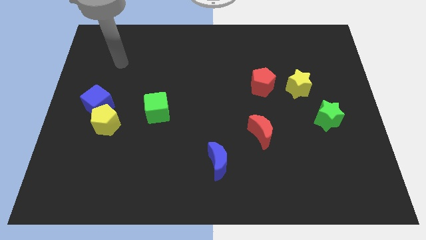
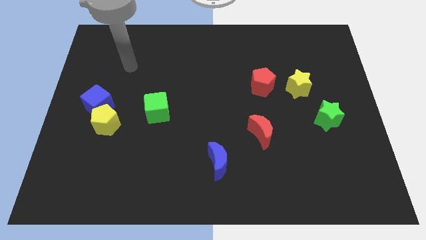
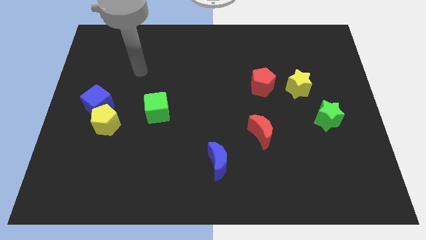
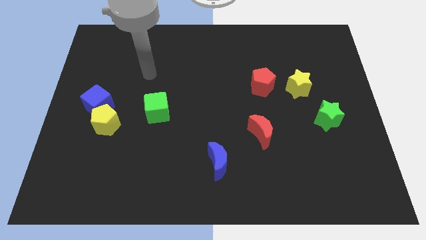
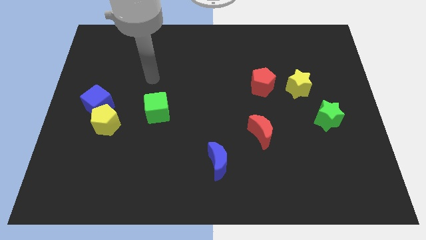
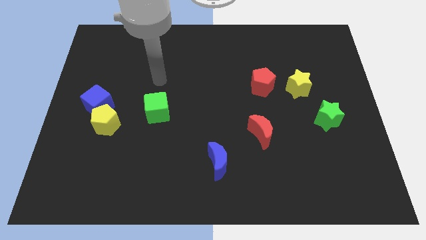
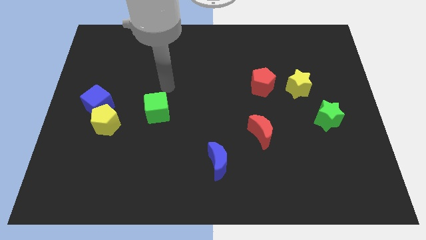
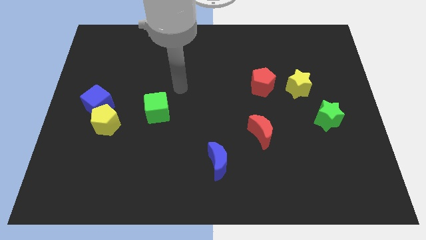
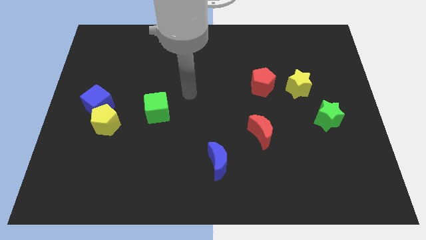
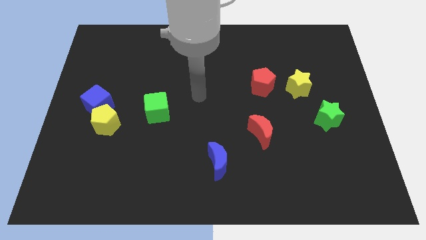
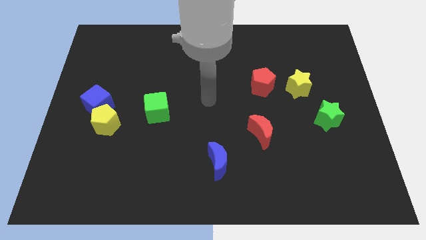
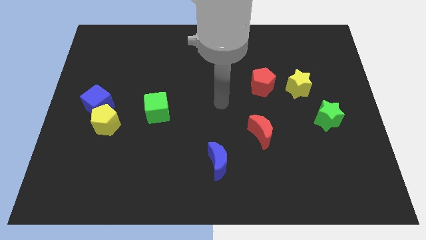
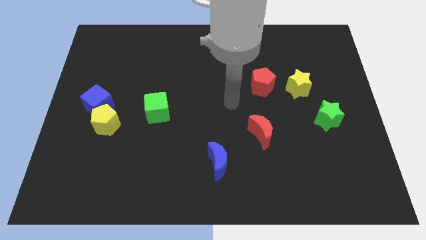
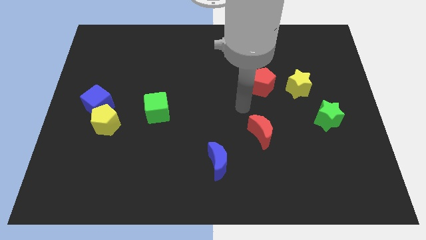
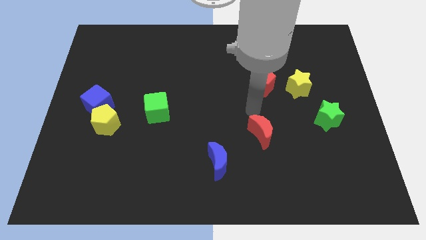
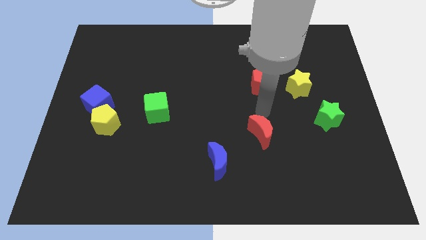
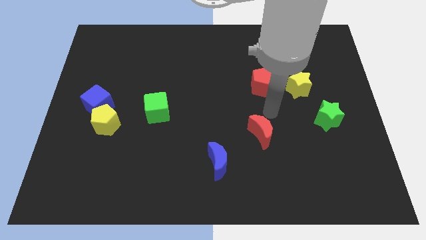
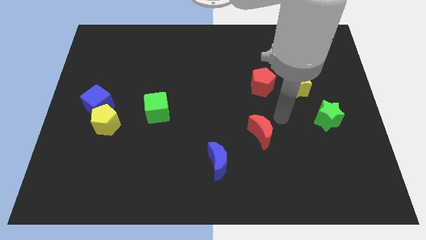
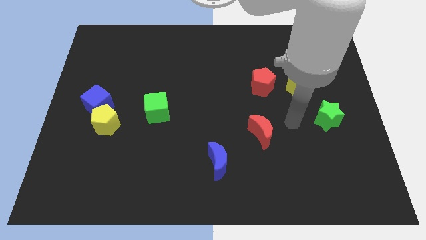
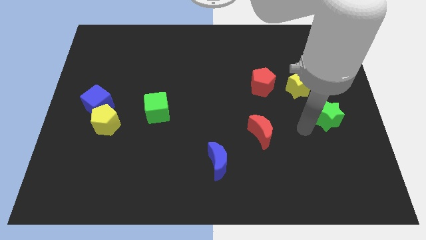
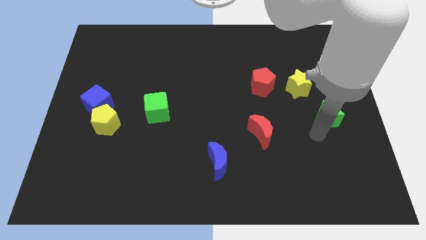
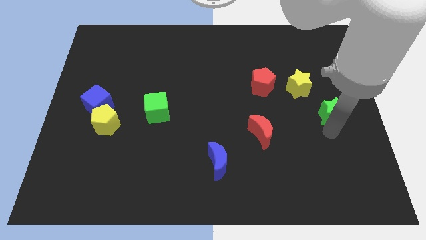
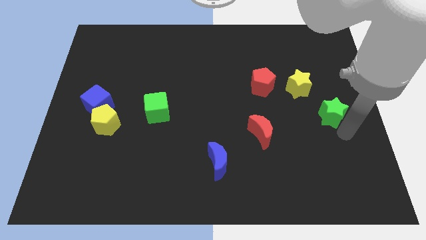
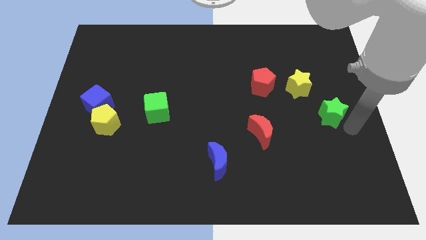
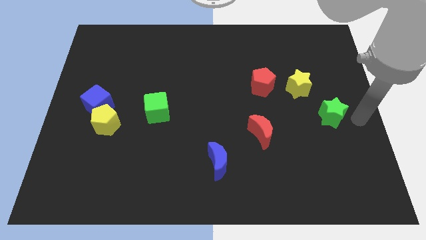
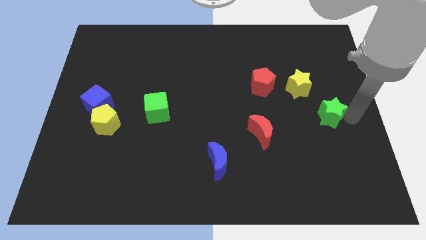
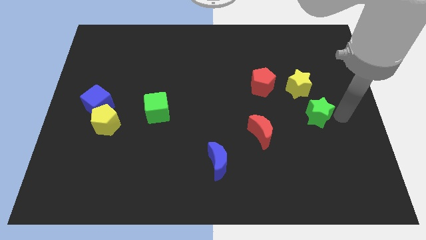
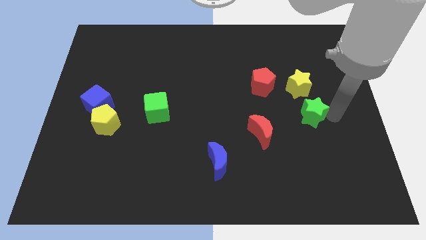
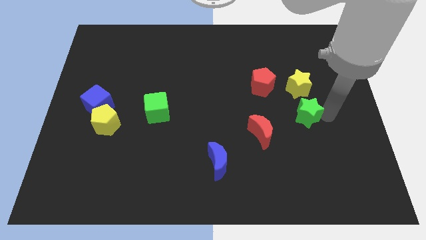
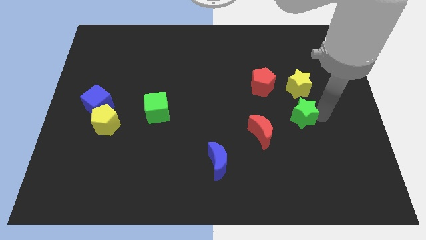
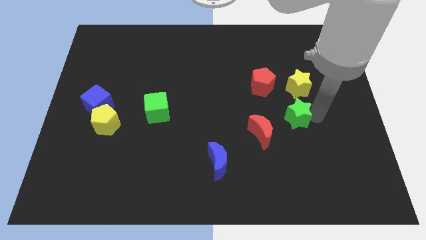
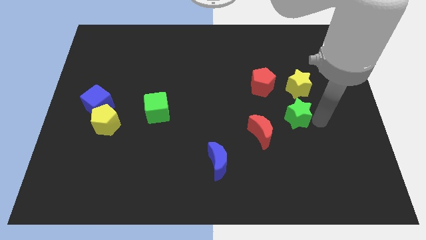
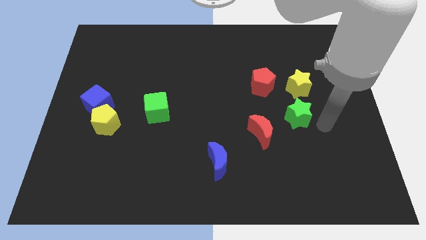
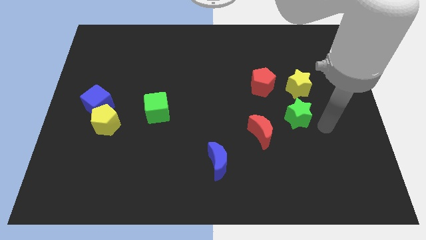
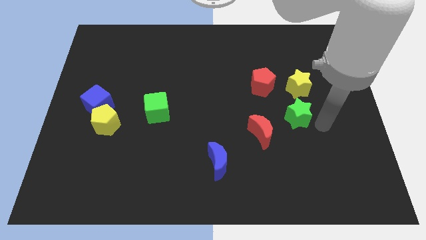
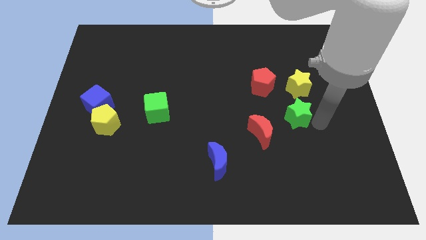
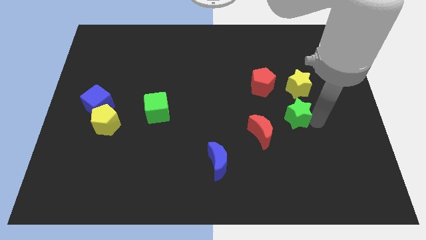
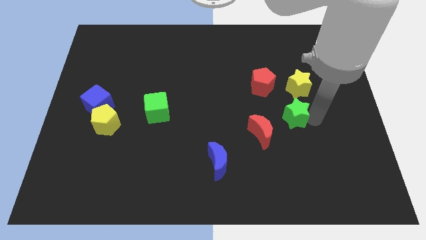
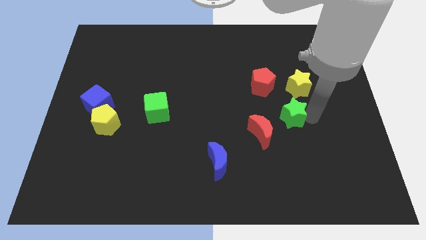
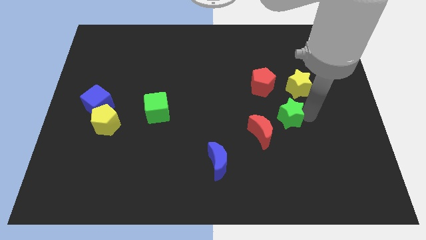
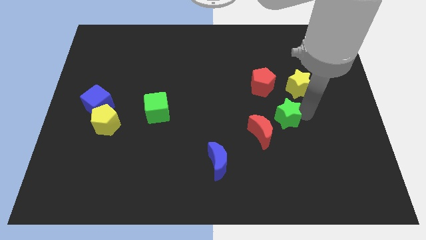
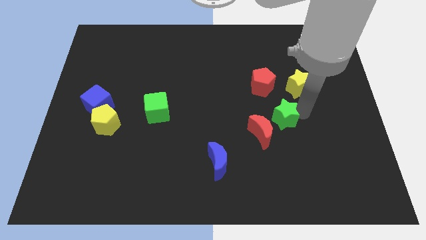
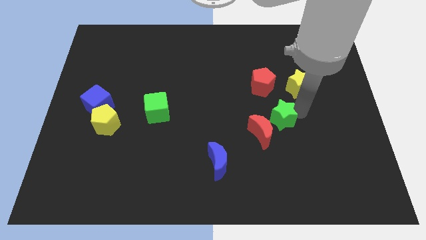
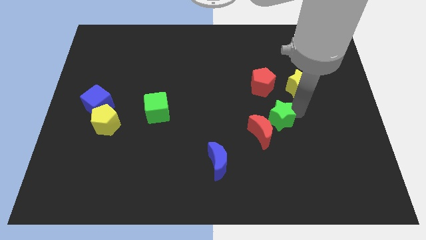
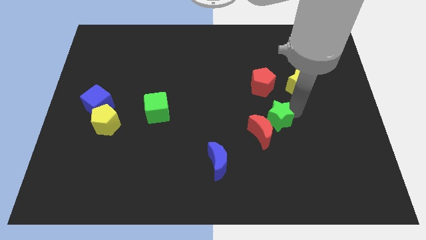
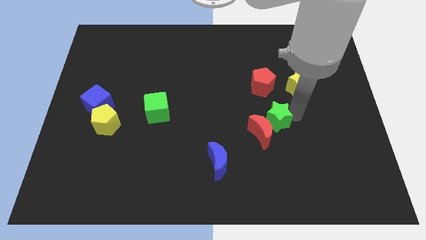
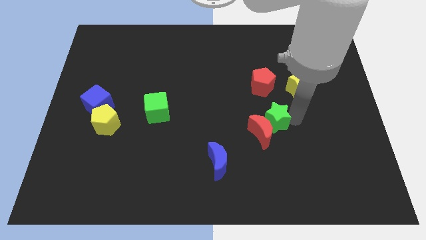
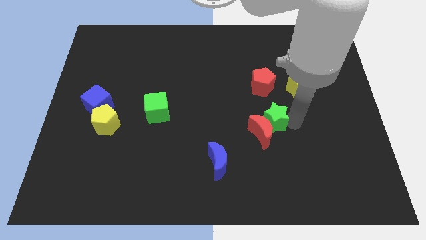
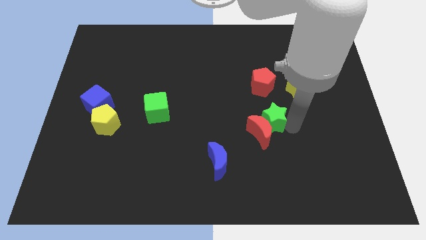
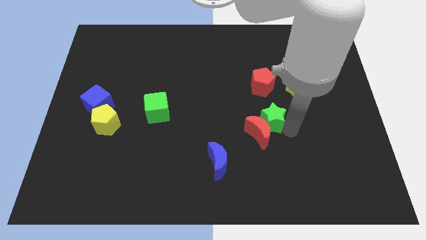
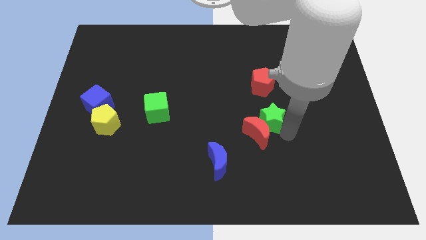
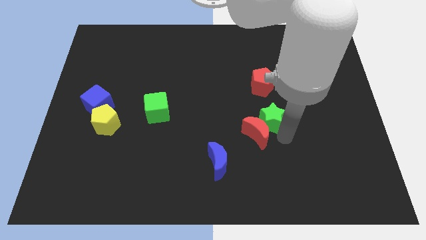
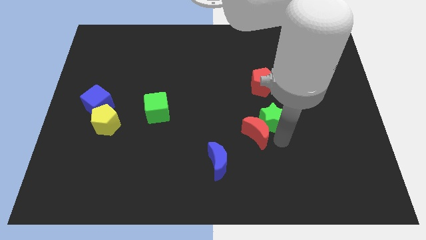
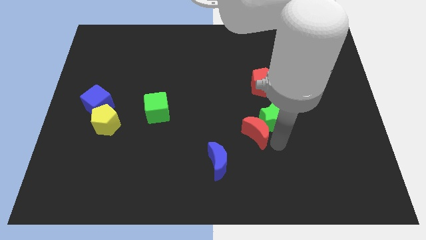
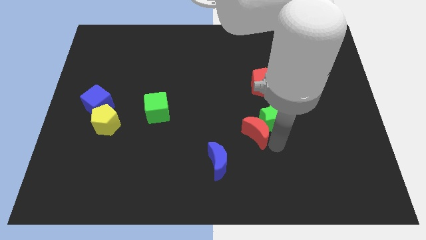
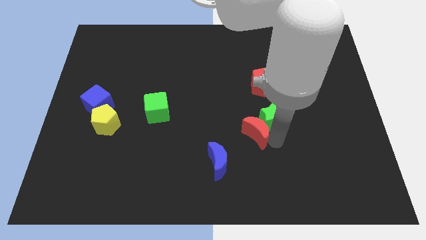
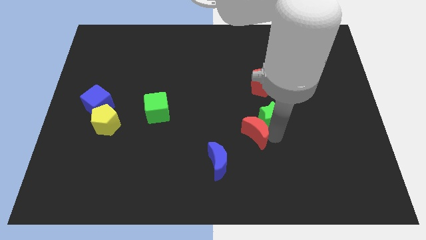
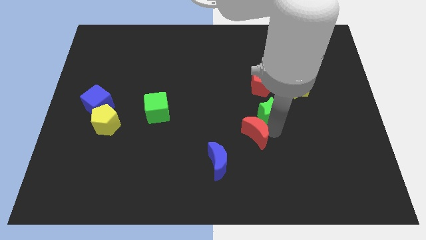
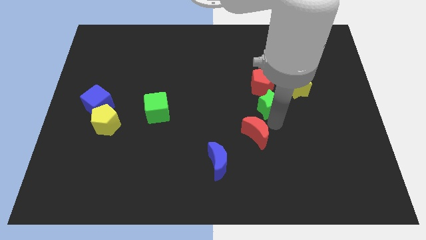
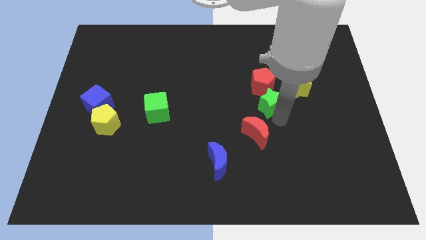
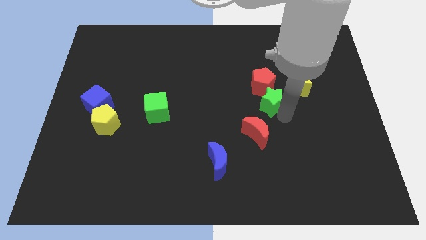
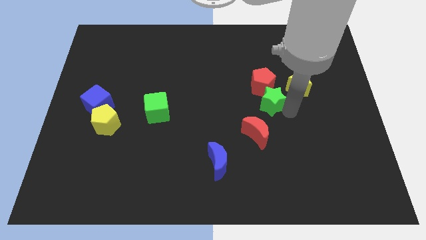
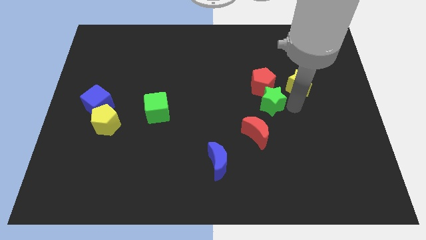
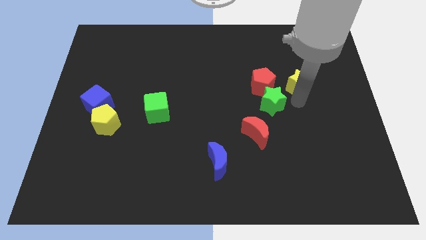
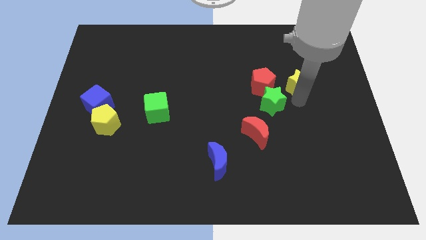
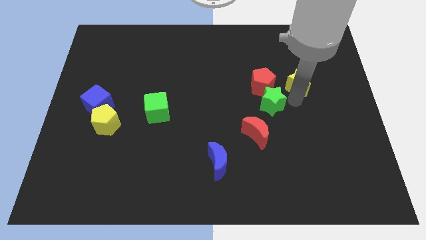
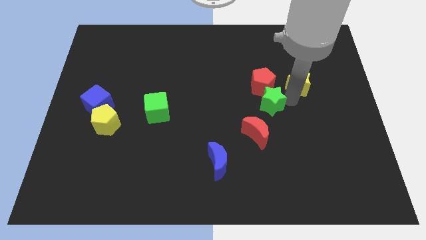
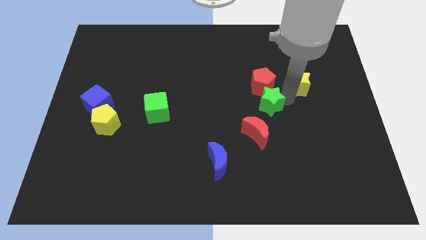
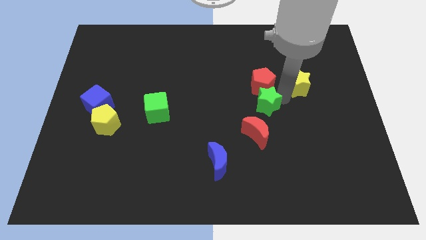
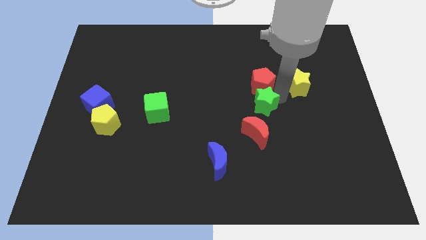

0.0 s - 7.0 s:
slide the green star to the center of the board

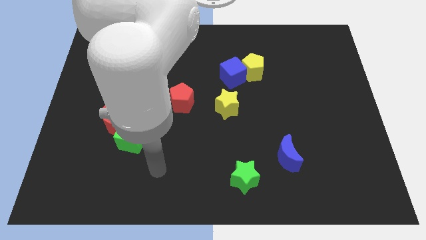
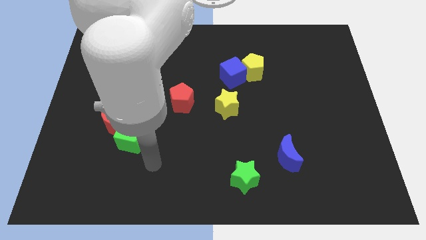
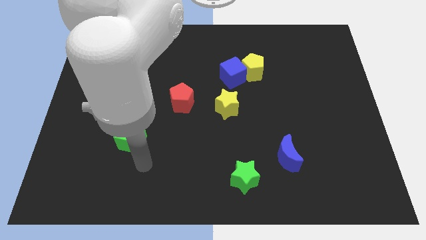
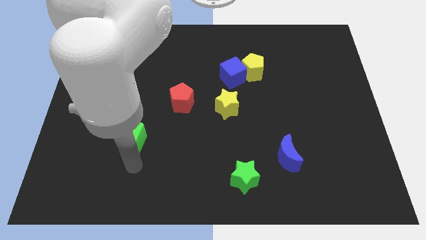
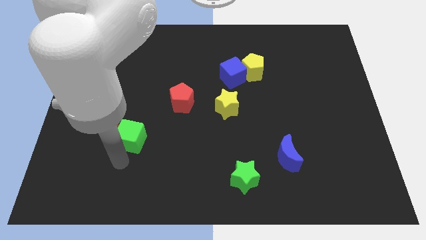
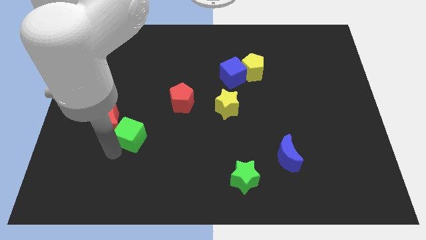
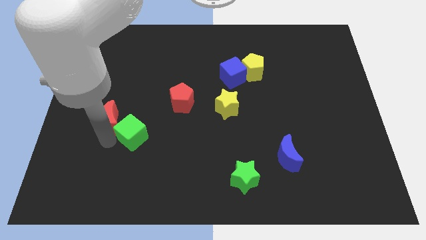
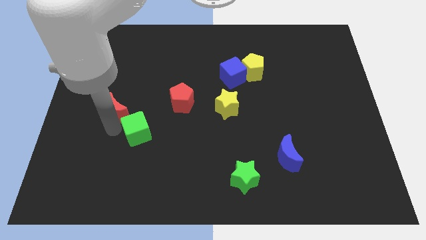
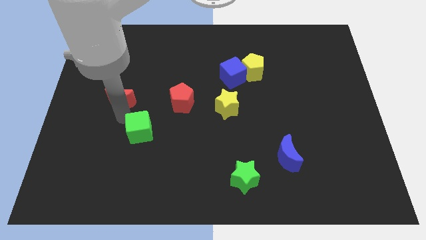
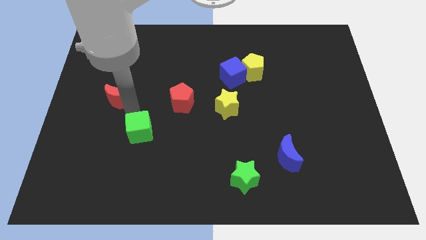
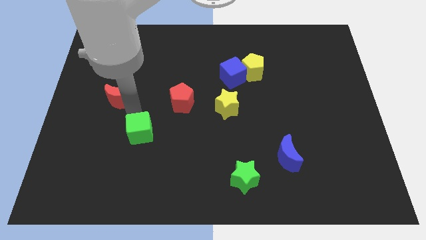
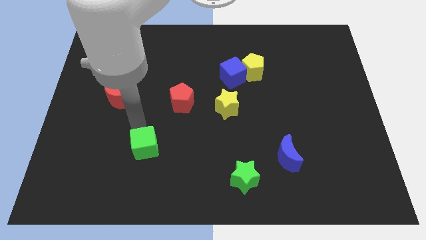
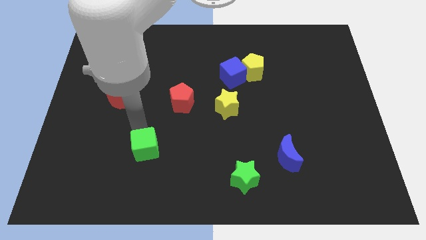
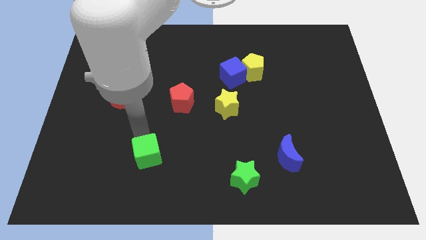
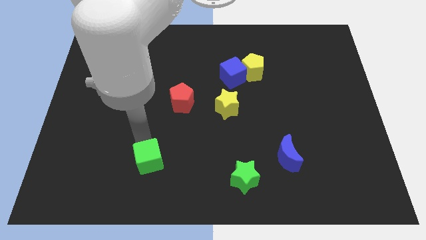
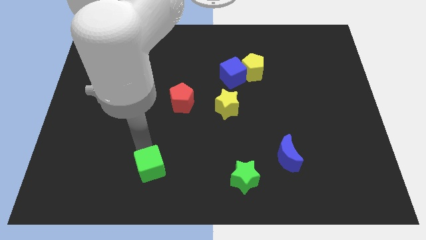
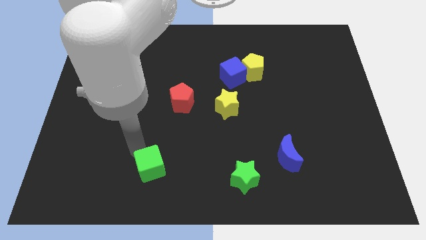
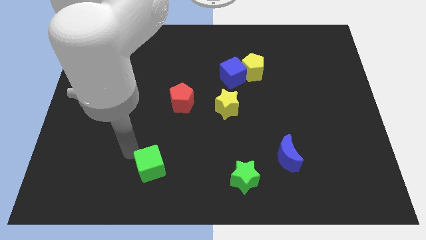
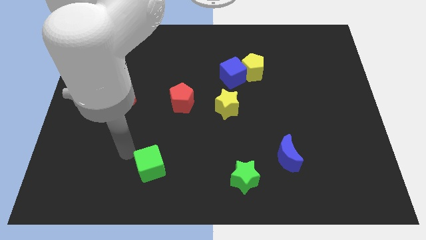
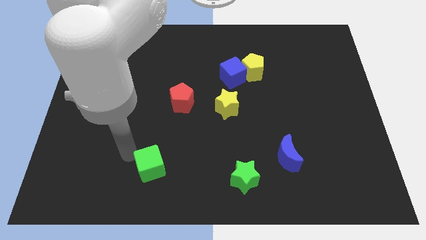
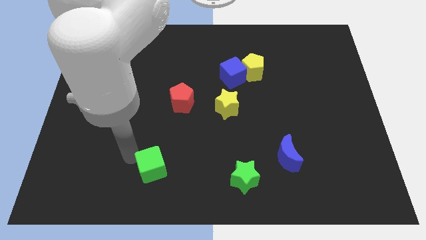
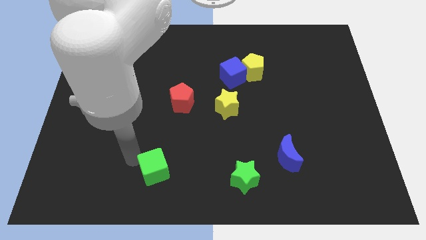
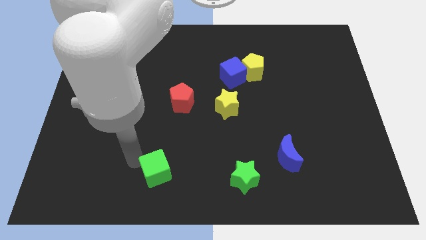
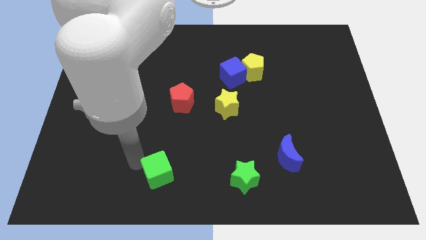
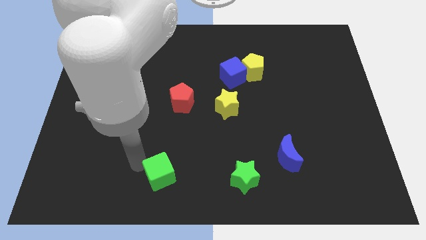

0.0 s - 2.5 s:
put the green cube to the bottom
